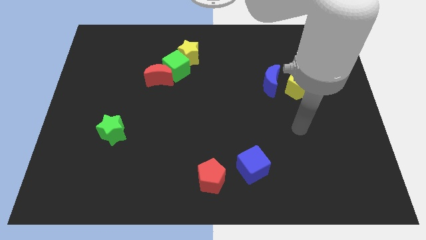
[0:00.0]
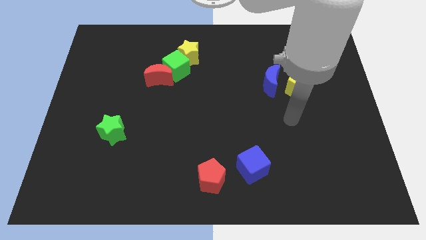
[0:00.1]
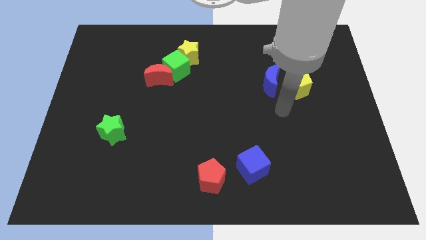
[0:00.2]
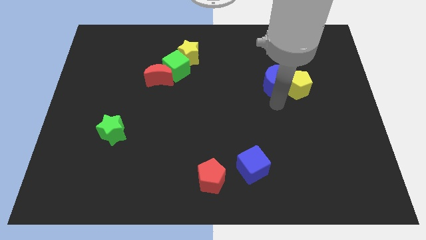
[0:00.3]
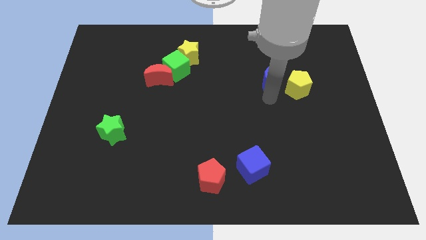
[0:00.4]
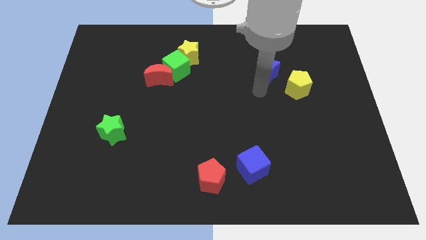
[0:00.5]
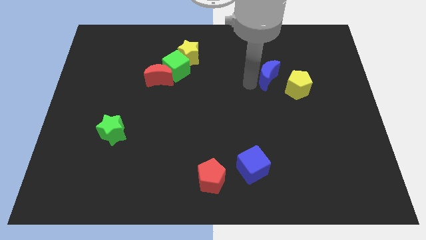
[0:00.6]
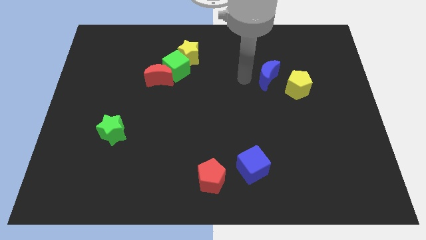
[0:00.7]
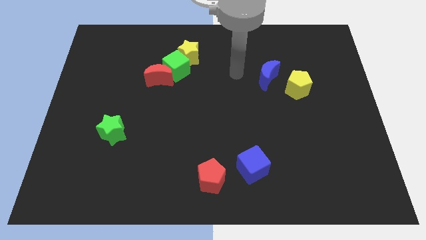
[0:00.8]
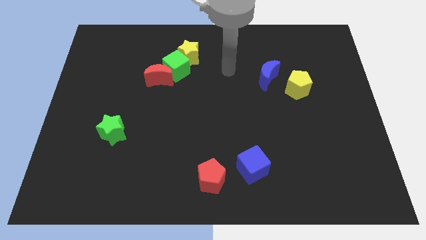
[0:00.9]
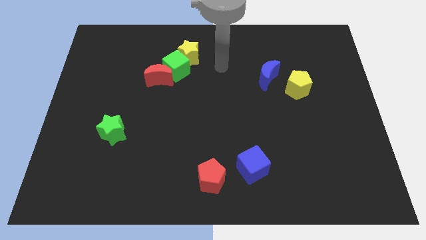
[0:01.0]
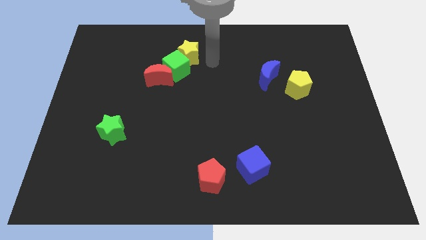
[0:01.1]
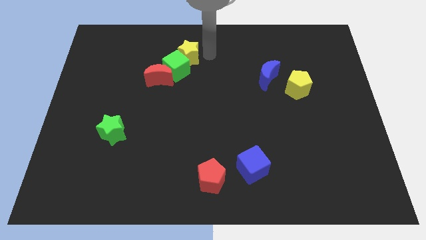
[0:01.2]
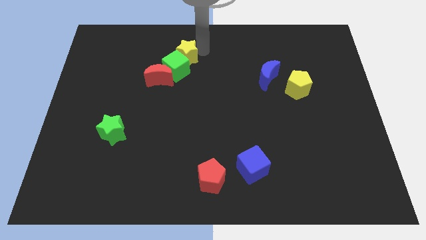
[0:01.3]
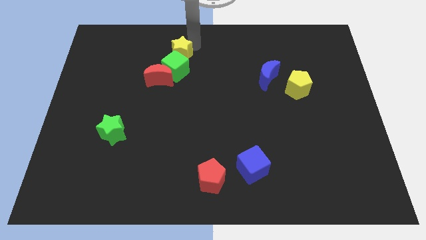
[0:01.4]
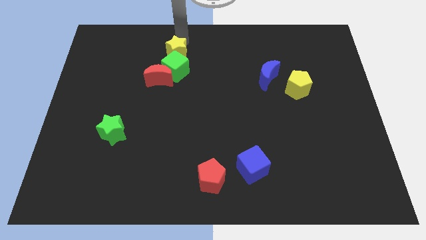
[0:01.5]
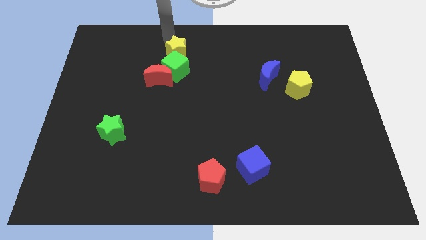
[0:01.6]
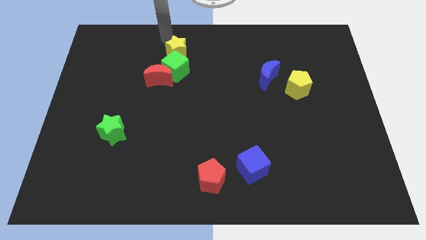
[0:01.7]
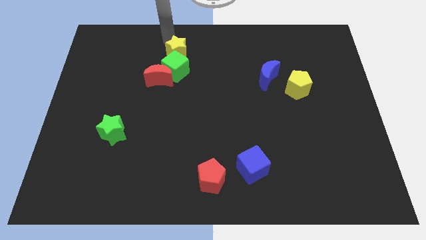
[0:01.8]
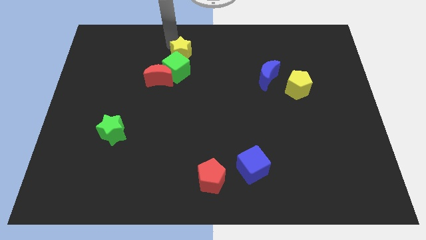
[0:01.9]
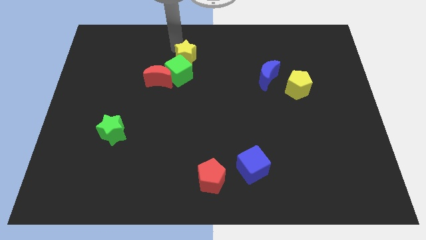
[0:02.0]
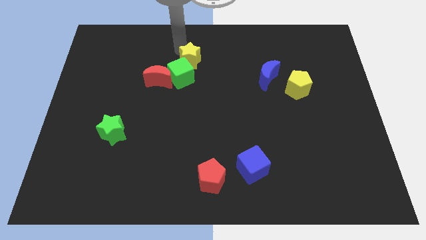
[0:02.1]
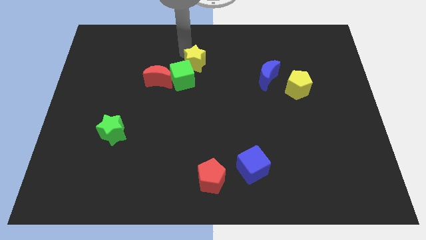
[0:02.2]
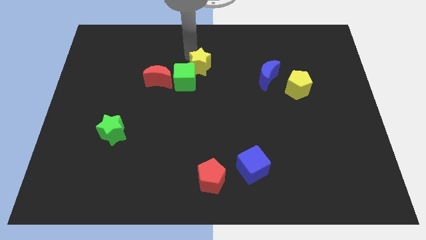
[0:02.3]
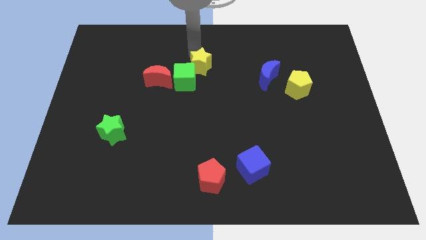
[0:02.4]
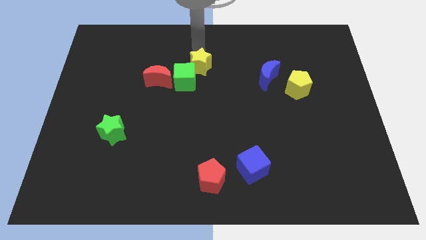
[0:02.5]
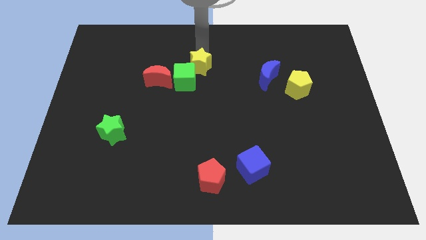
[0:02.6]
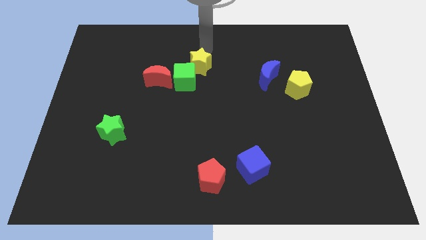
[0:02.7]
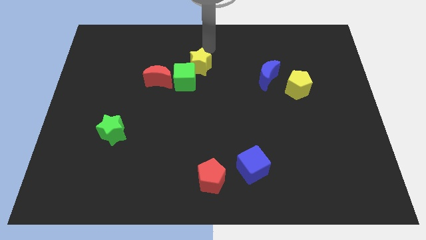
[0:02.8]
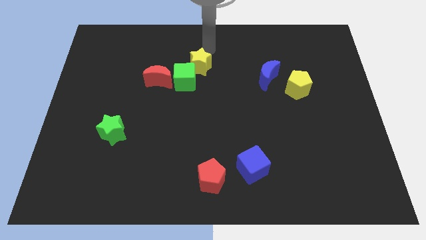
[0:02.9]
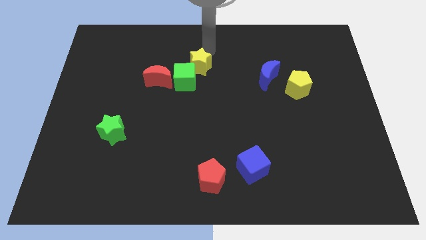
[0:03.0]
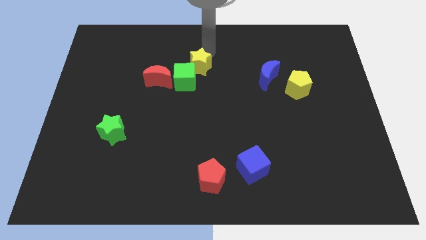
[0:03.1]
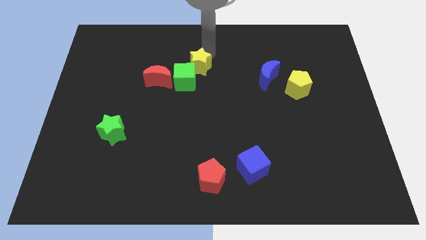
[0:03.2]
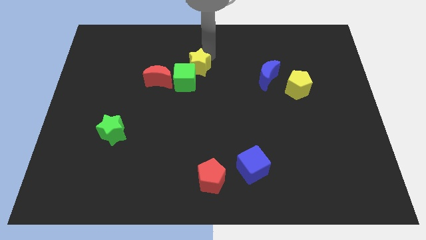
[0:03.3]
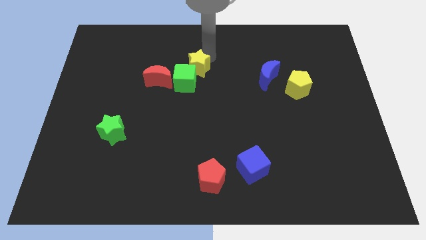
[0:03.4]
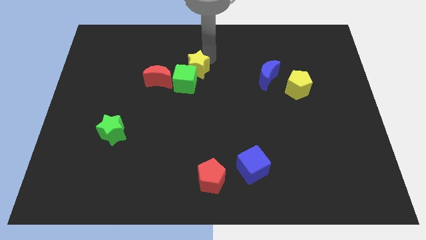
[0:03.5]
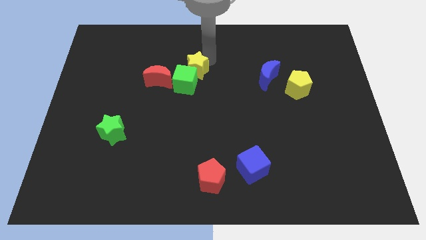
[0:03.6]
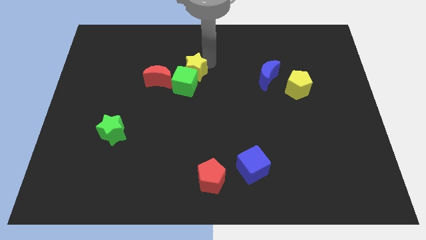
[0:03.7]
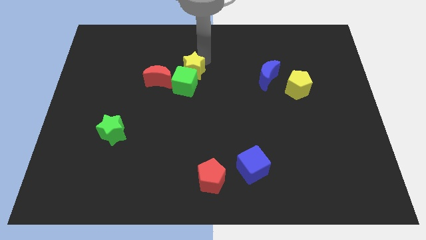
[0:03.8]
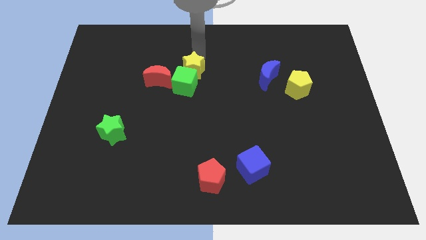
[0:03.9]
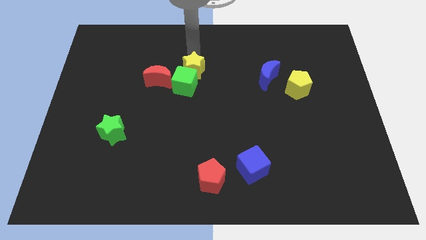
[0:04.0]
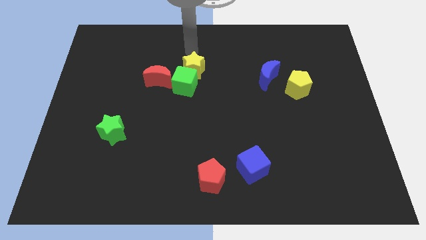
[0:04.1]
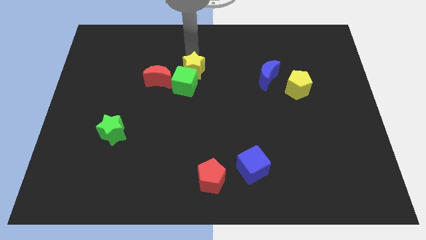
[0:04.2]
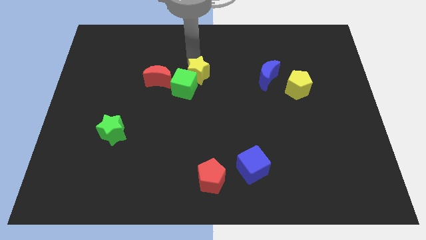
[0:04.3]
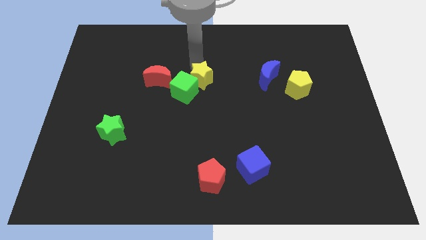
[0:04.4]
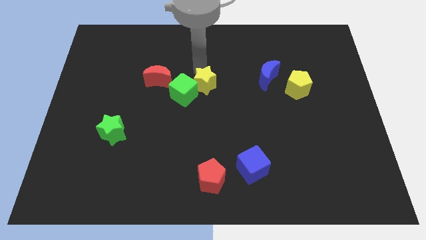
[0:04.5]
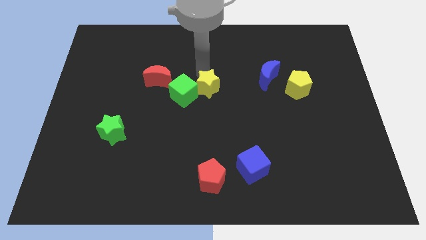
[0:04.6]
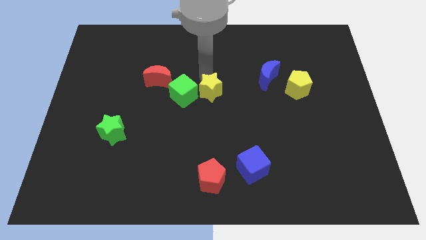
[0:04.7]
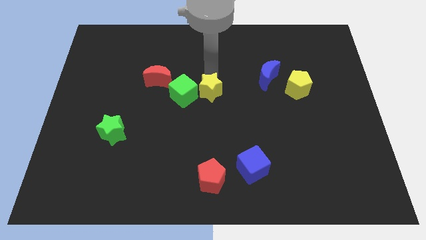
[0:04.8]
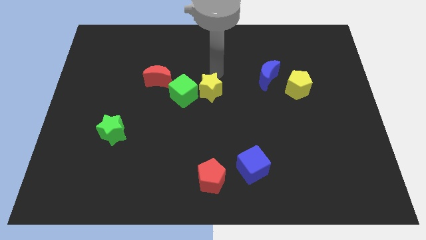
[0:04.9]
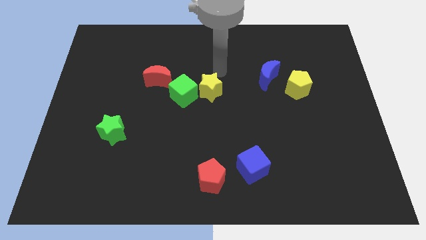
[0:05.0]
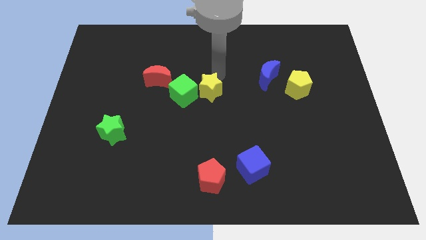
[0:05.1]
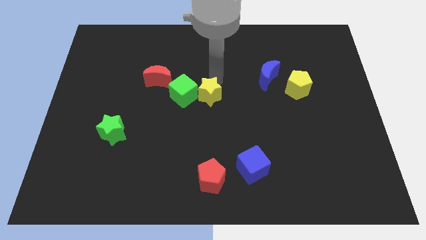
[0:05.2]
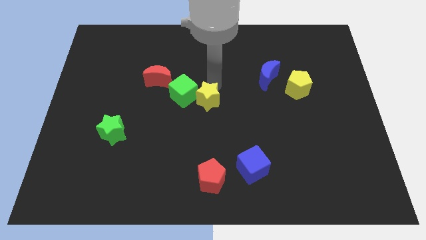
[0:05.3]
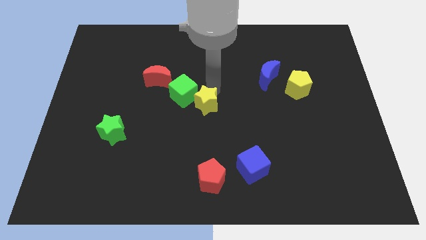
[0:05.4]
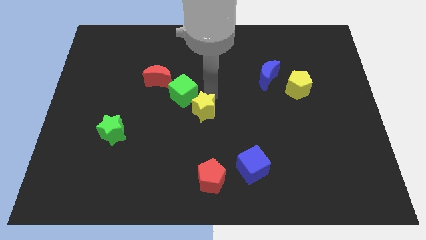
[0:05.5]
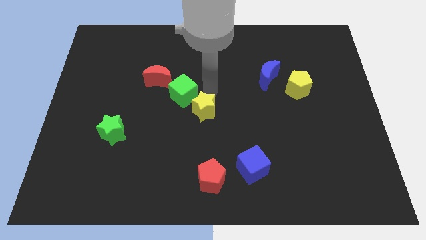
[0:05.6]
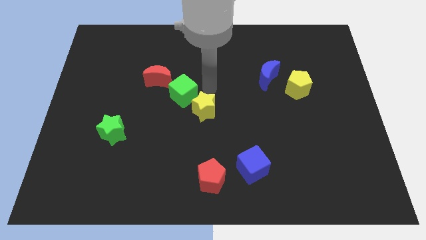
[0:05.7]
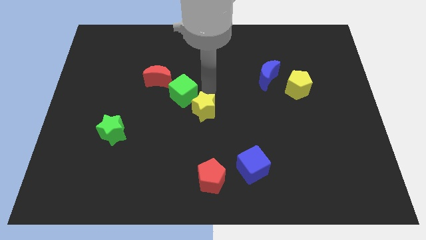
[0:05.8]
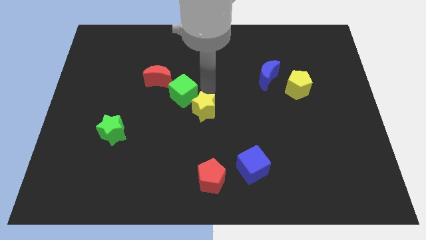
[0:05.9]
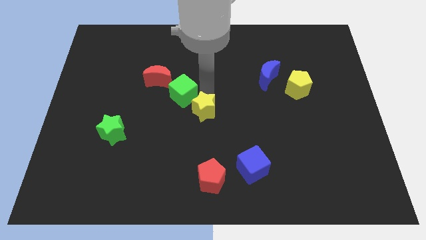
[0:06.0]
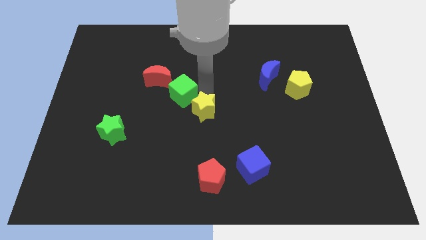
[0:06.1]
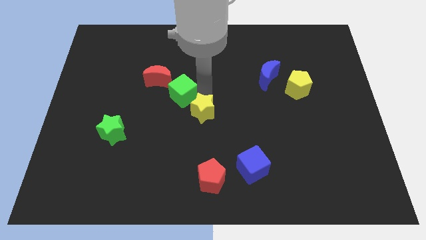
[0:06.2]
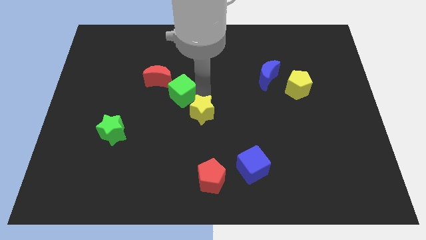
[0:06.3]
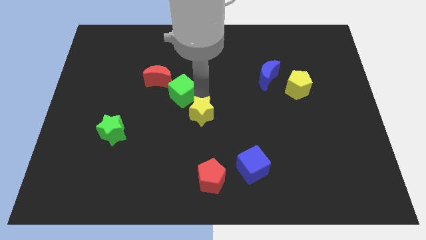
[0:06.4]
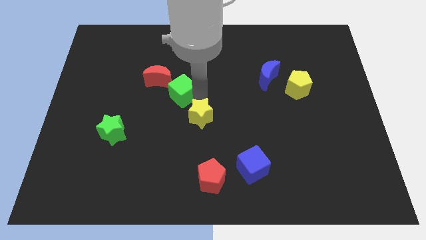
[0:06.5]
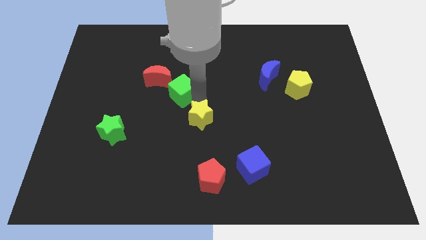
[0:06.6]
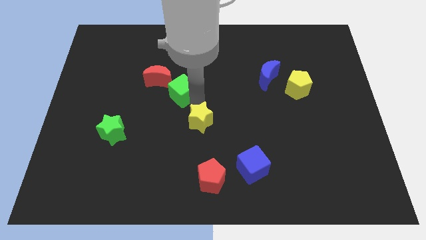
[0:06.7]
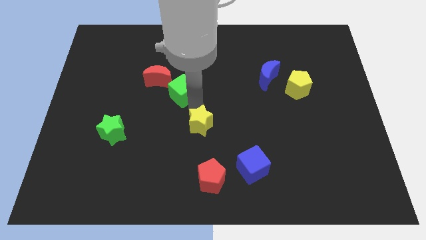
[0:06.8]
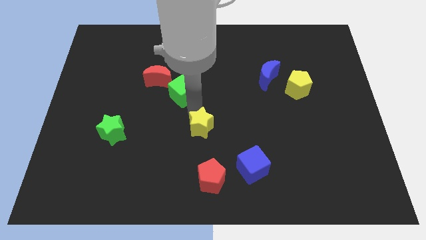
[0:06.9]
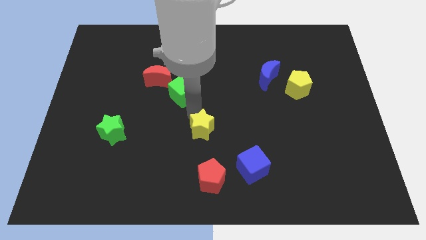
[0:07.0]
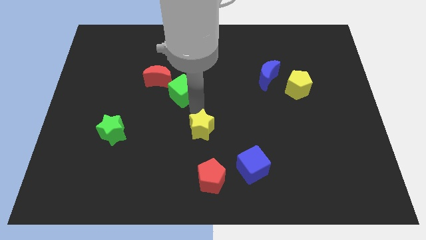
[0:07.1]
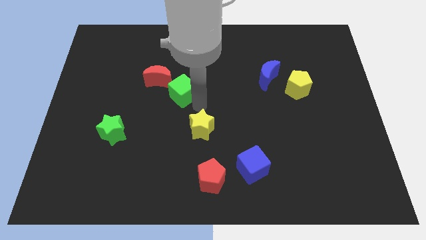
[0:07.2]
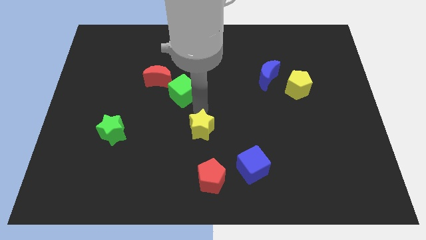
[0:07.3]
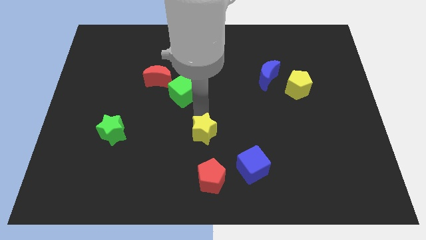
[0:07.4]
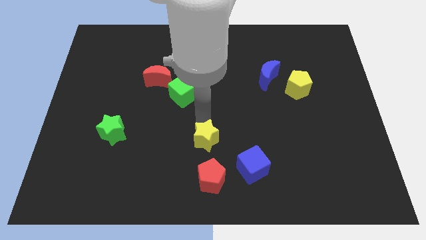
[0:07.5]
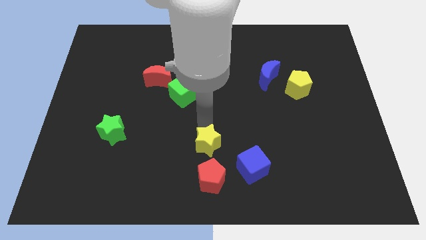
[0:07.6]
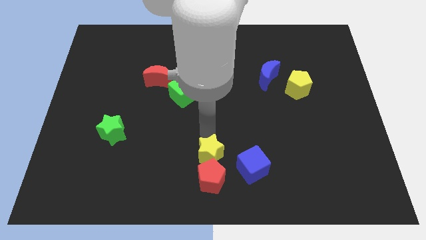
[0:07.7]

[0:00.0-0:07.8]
put the yellow star to the red pentagon
